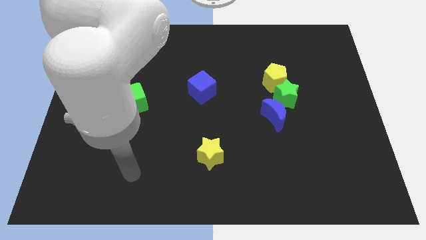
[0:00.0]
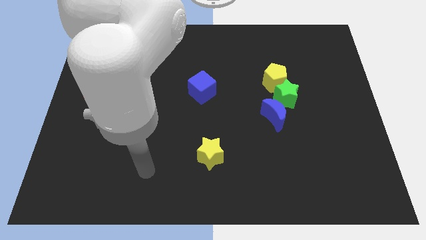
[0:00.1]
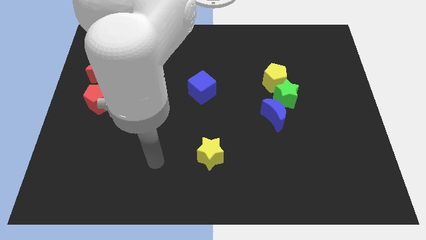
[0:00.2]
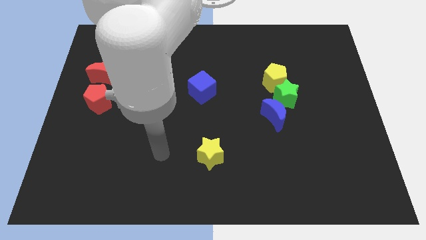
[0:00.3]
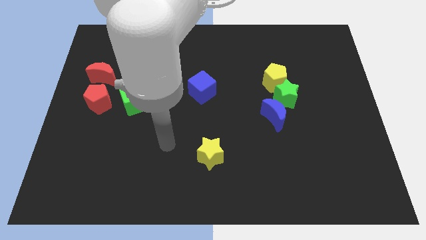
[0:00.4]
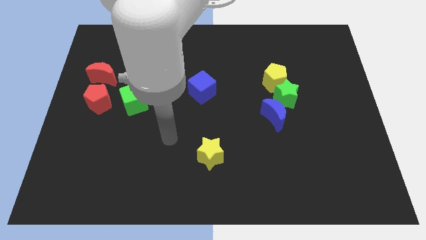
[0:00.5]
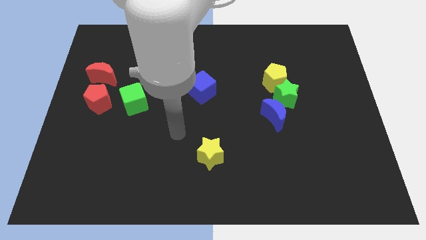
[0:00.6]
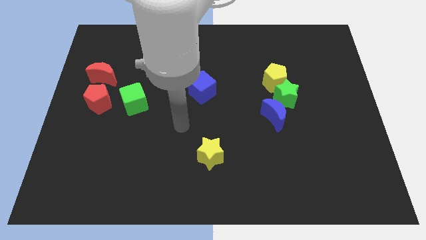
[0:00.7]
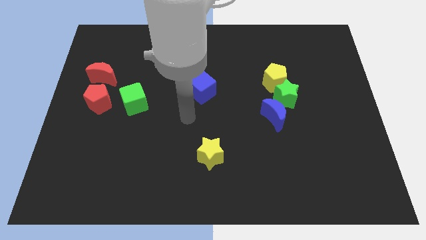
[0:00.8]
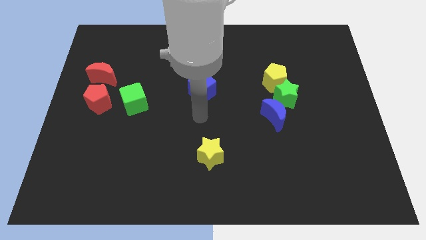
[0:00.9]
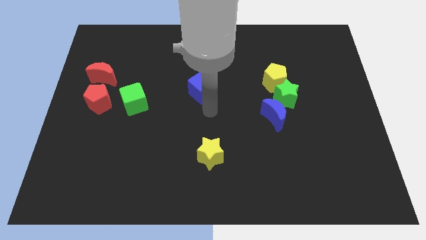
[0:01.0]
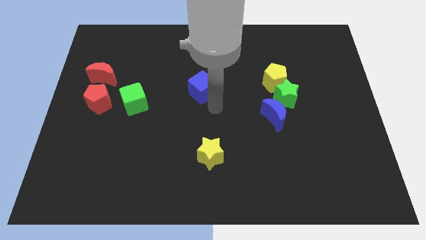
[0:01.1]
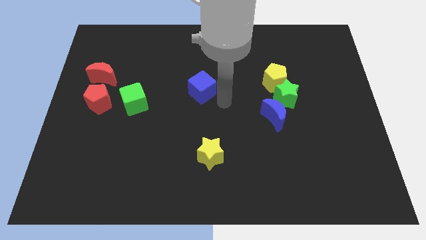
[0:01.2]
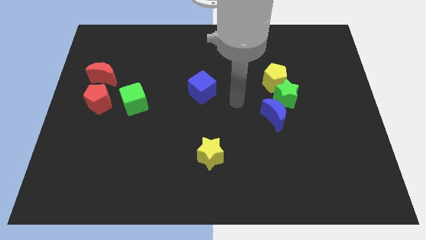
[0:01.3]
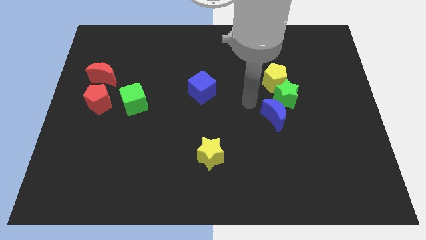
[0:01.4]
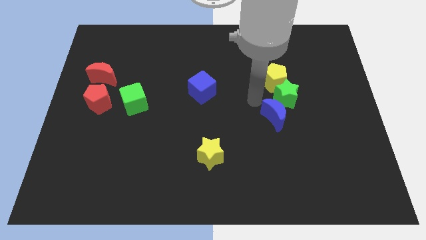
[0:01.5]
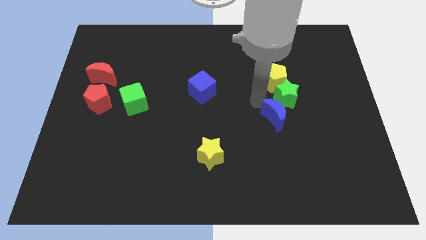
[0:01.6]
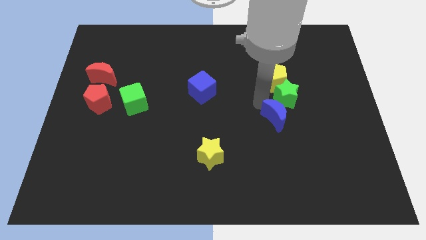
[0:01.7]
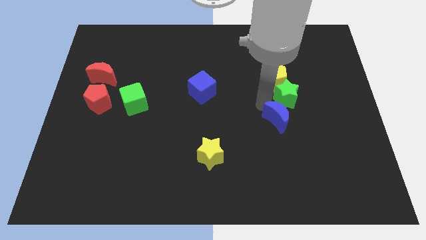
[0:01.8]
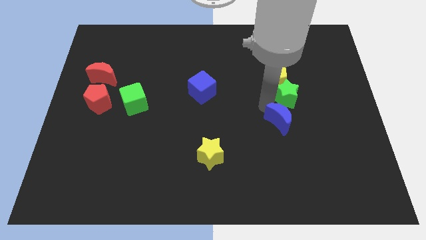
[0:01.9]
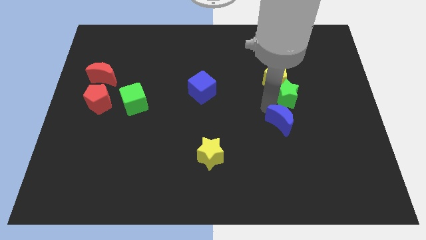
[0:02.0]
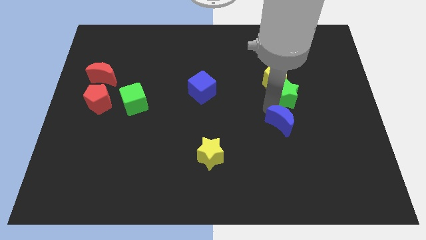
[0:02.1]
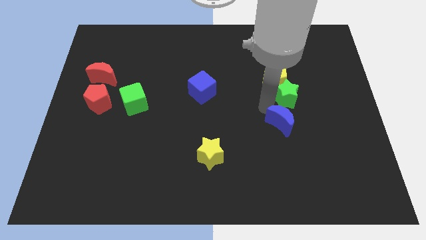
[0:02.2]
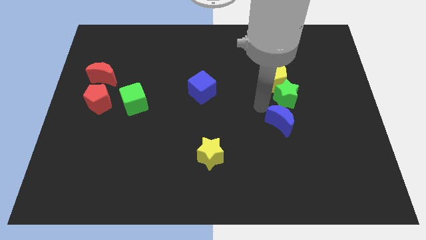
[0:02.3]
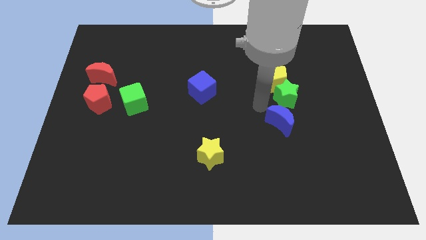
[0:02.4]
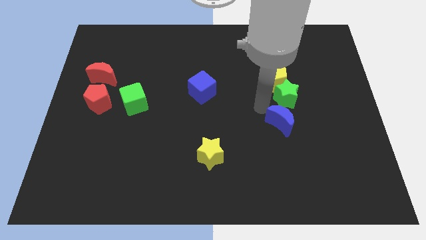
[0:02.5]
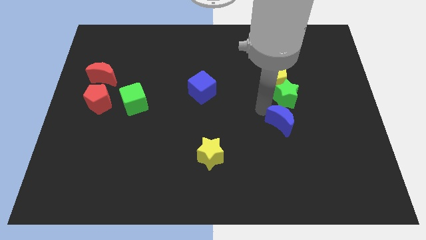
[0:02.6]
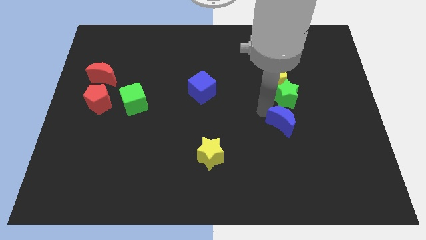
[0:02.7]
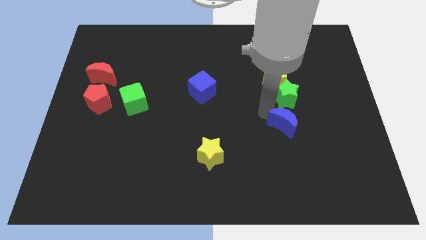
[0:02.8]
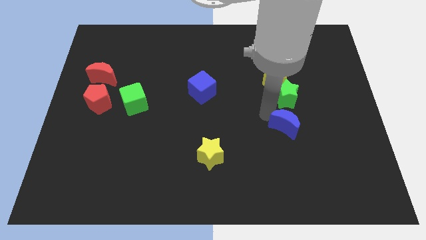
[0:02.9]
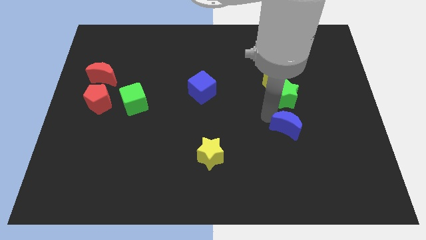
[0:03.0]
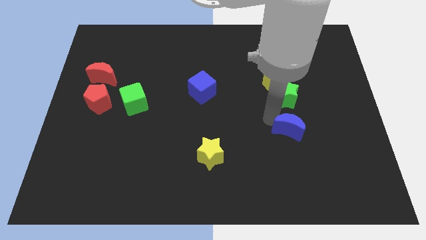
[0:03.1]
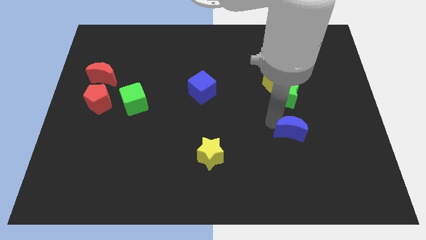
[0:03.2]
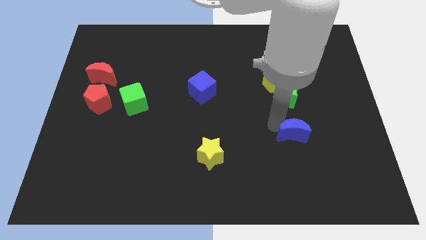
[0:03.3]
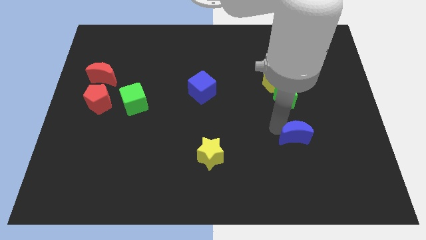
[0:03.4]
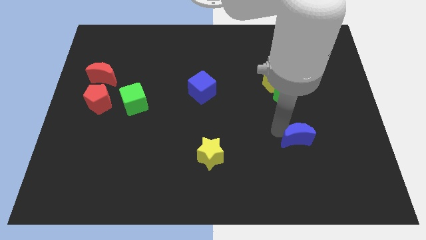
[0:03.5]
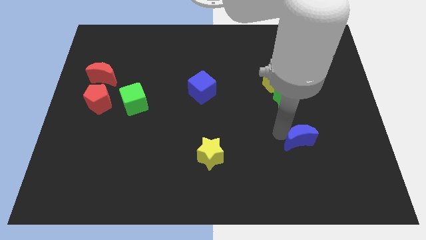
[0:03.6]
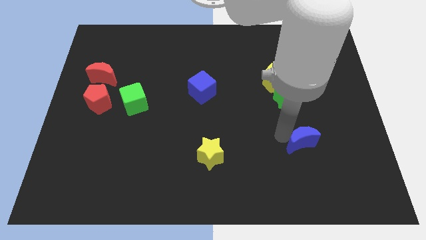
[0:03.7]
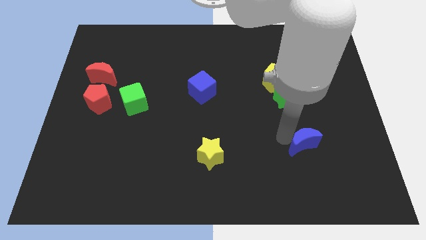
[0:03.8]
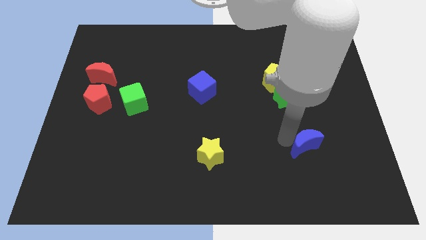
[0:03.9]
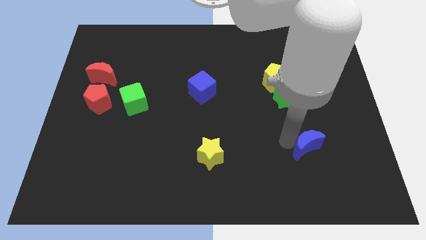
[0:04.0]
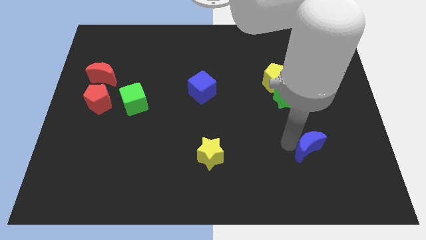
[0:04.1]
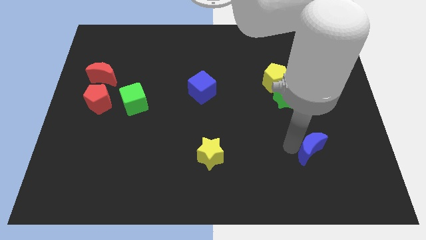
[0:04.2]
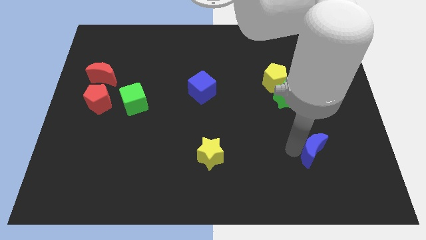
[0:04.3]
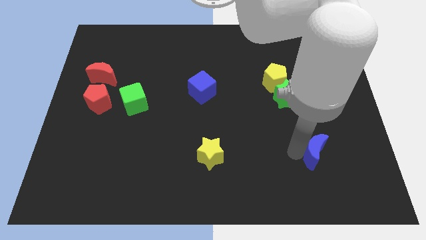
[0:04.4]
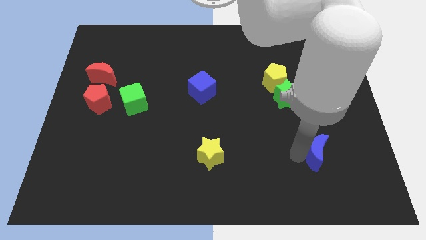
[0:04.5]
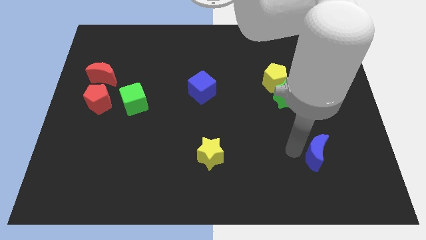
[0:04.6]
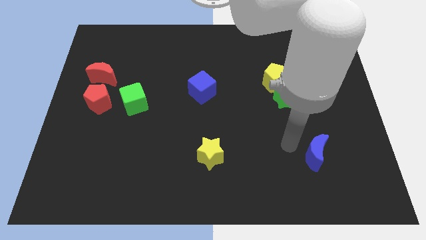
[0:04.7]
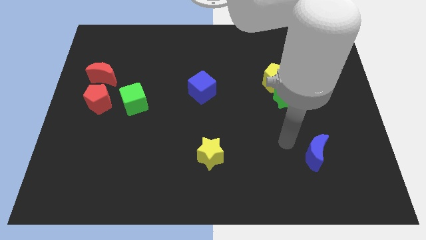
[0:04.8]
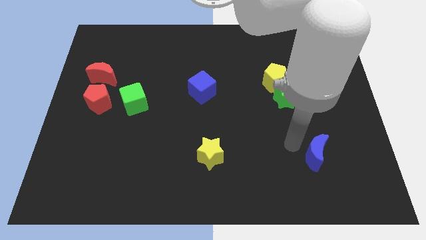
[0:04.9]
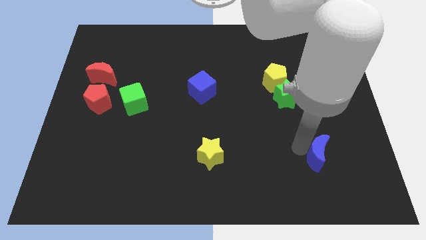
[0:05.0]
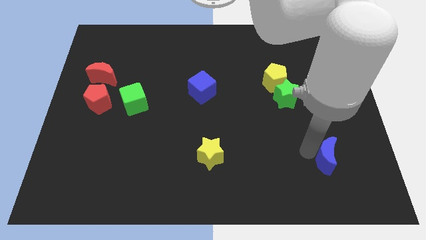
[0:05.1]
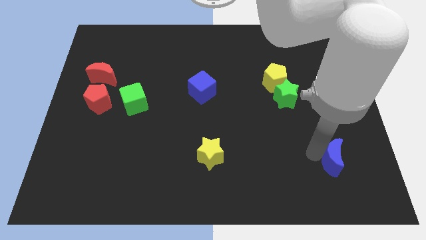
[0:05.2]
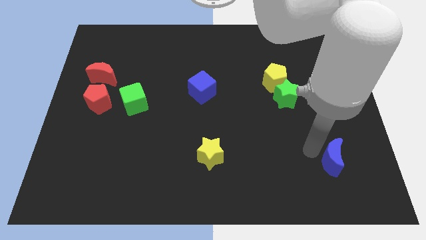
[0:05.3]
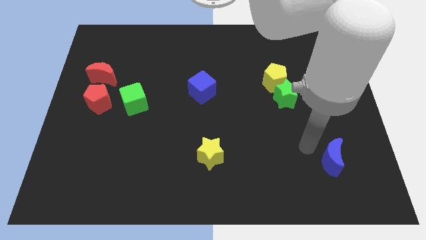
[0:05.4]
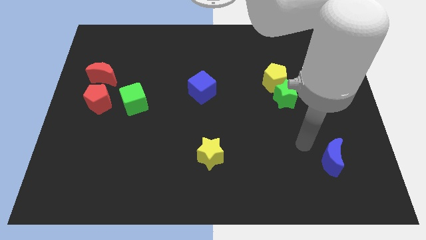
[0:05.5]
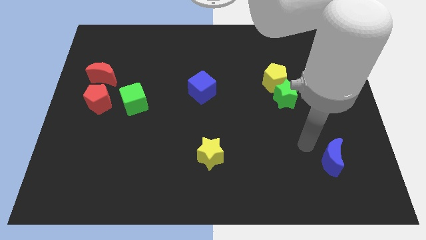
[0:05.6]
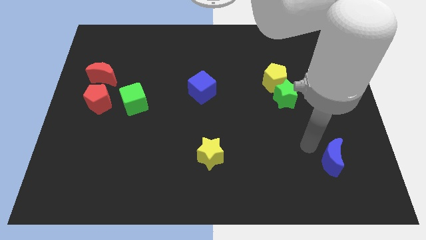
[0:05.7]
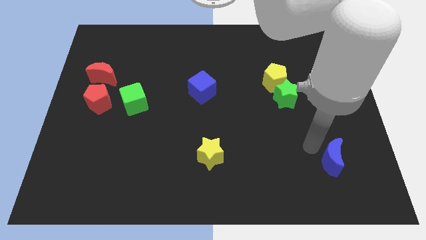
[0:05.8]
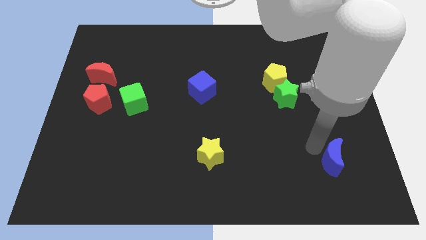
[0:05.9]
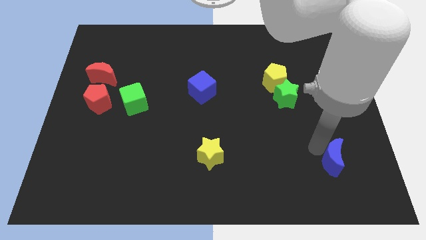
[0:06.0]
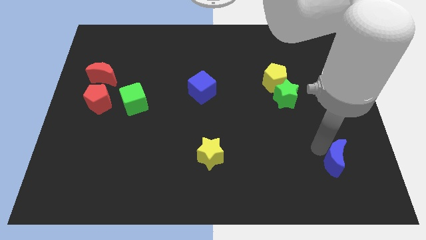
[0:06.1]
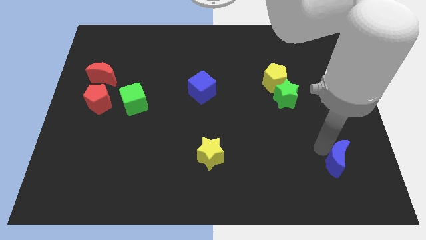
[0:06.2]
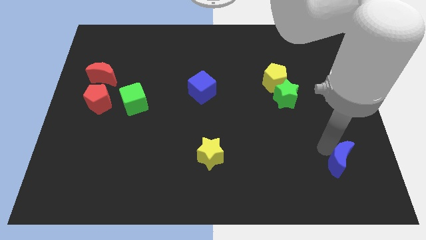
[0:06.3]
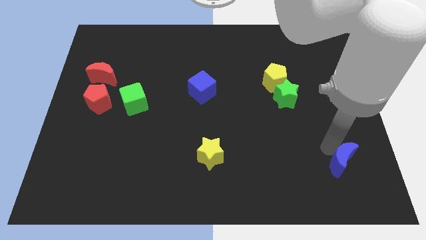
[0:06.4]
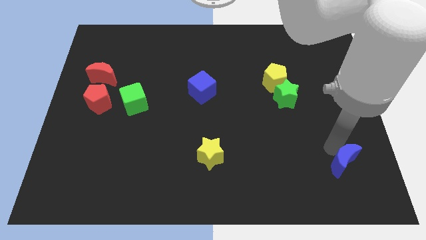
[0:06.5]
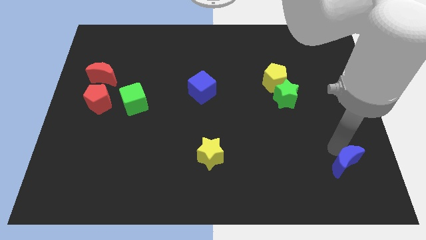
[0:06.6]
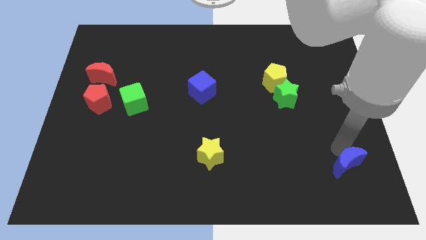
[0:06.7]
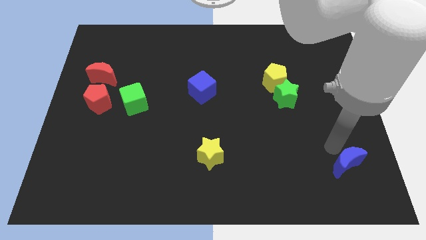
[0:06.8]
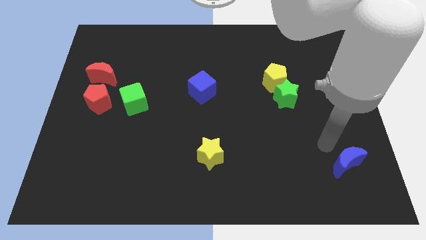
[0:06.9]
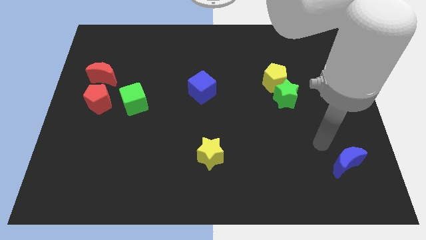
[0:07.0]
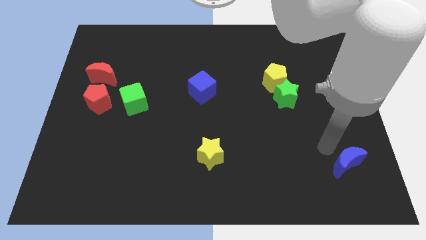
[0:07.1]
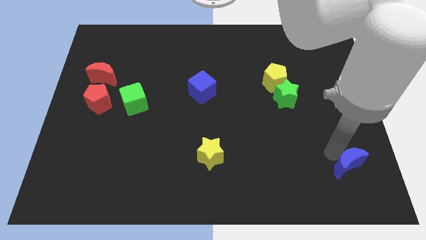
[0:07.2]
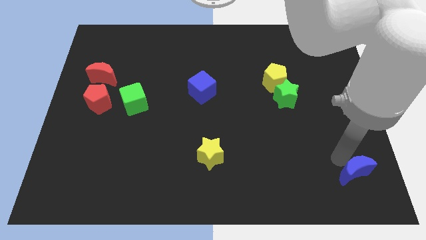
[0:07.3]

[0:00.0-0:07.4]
move the blue moon to the bottom right of the board
